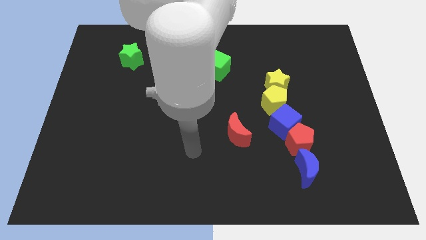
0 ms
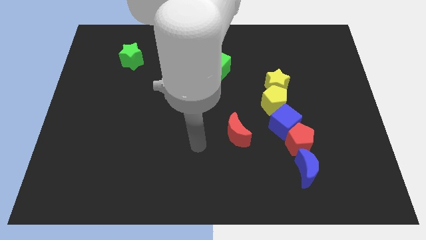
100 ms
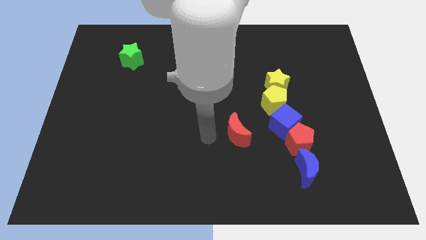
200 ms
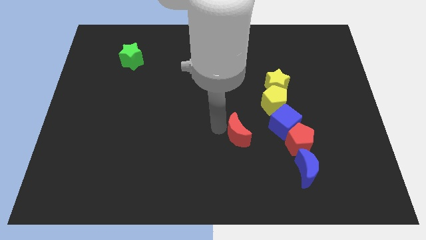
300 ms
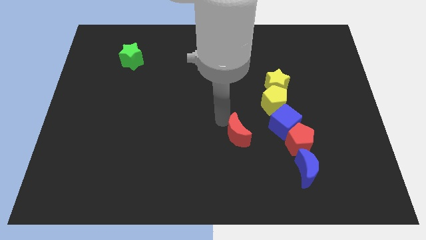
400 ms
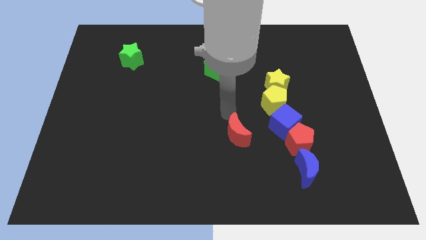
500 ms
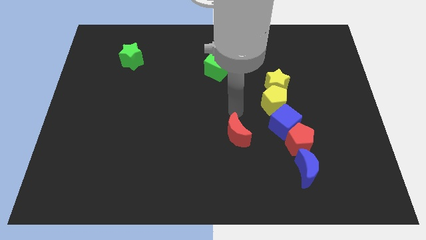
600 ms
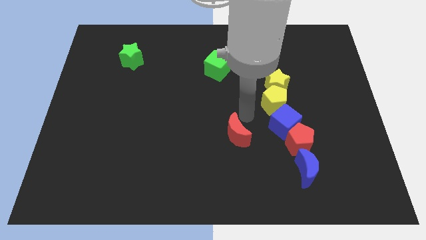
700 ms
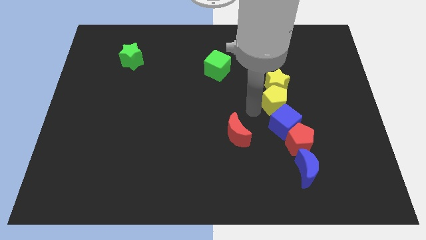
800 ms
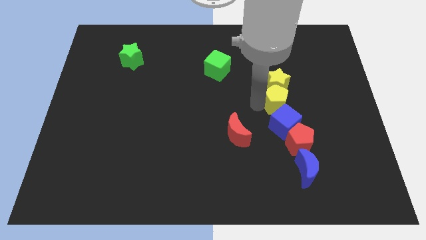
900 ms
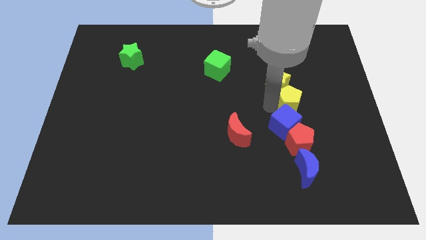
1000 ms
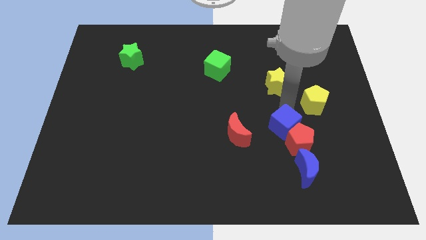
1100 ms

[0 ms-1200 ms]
pull the yellow star apart from the yellow pentagon

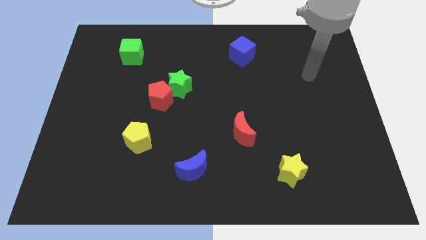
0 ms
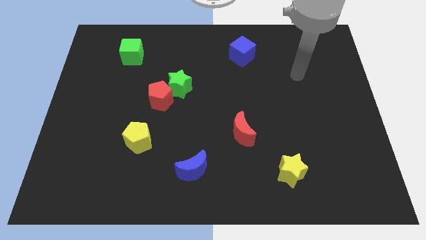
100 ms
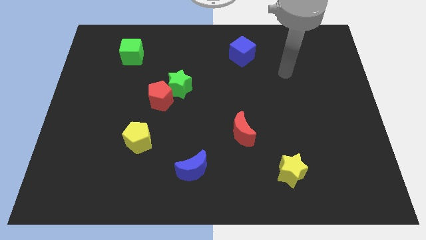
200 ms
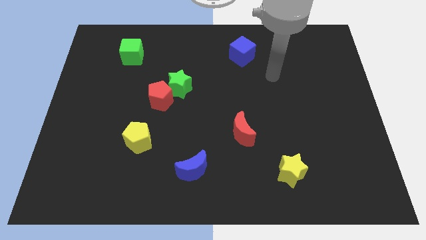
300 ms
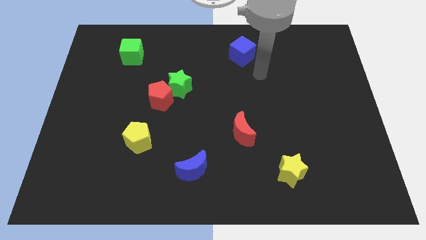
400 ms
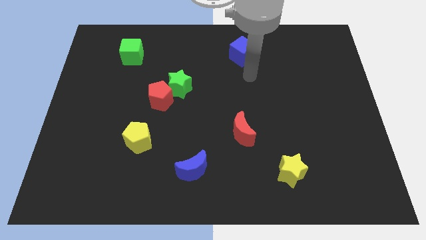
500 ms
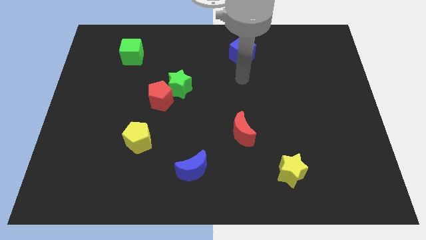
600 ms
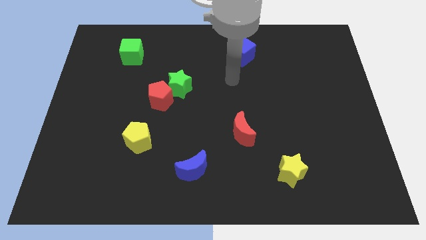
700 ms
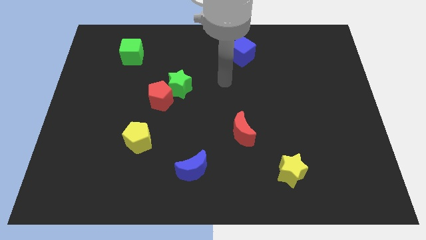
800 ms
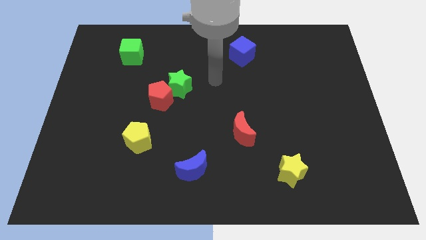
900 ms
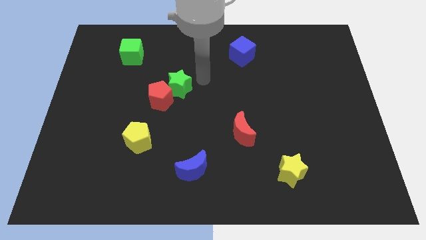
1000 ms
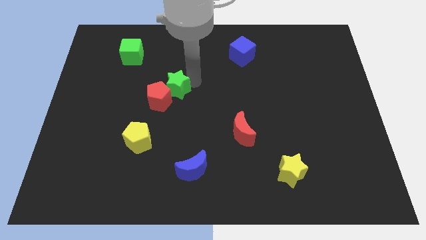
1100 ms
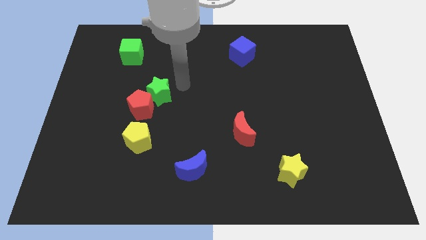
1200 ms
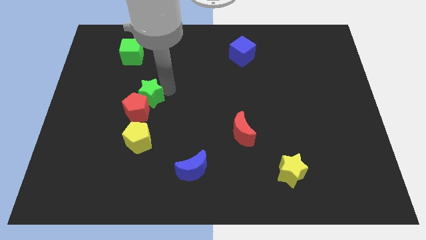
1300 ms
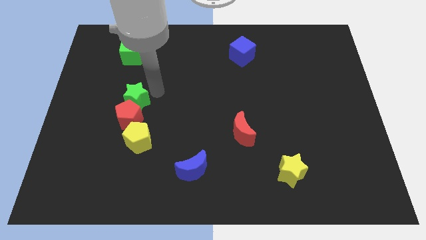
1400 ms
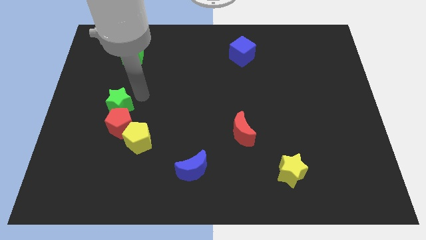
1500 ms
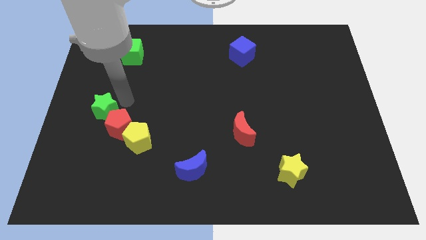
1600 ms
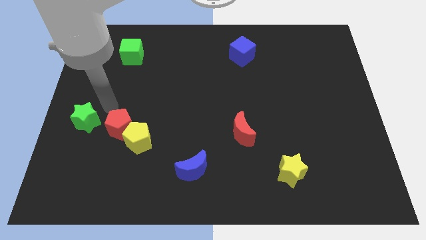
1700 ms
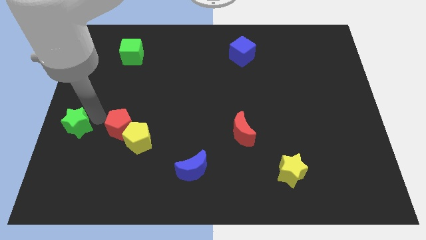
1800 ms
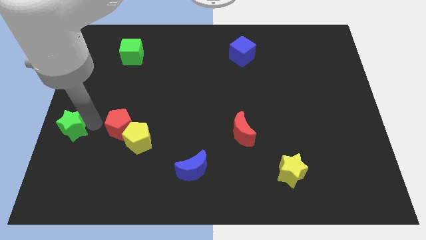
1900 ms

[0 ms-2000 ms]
pull the red pentagon apart from the green star

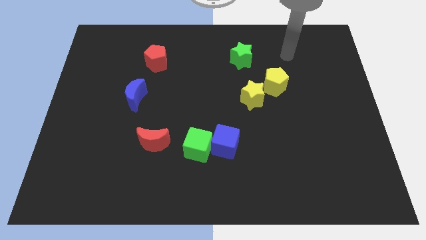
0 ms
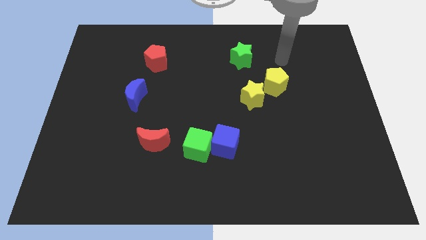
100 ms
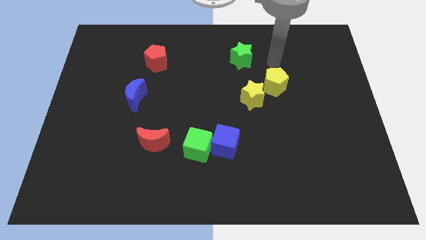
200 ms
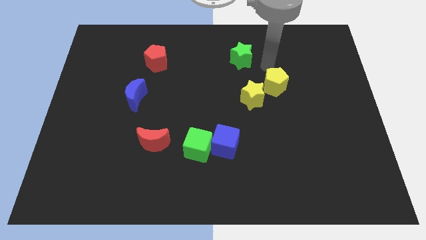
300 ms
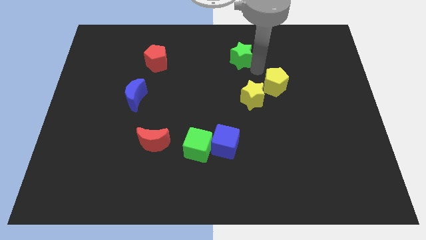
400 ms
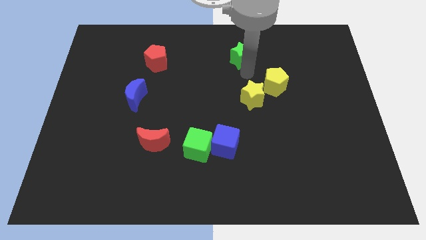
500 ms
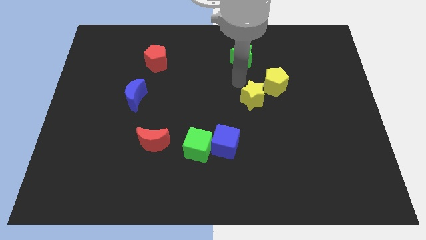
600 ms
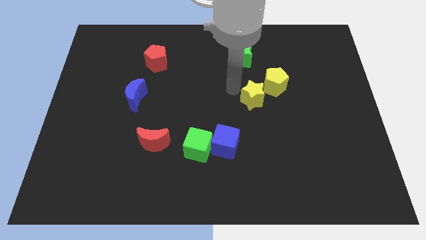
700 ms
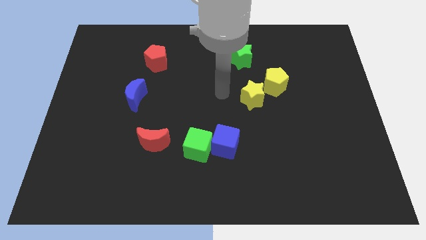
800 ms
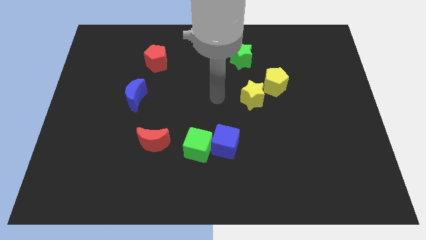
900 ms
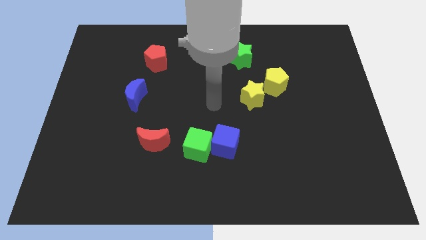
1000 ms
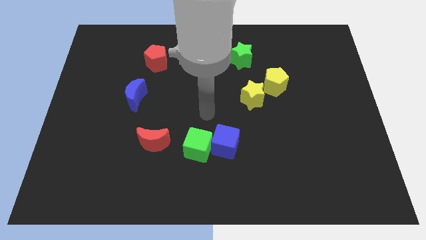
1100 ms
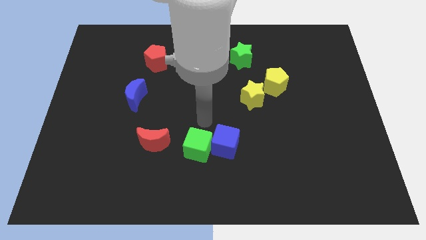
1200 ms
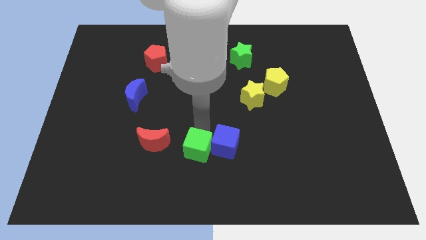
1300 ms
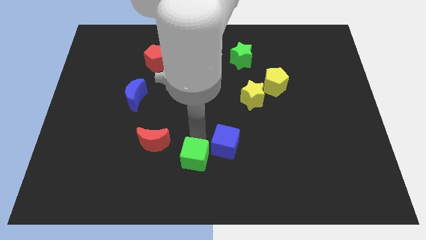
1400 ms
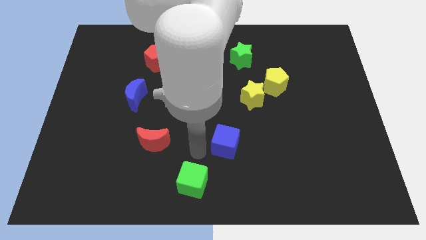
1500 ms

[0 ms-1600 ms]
pull the blue cube apart from the green cube

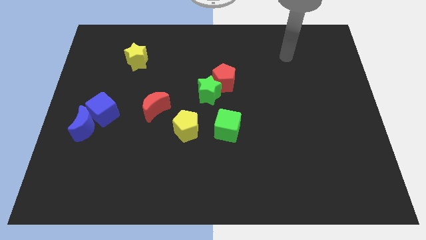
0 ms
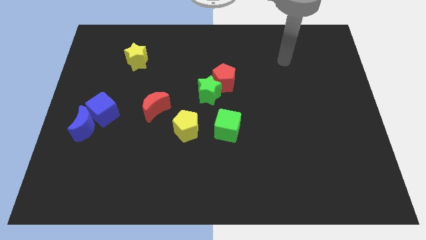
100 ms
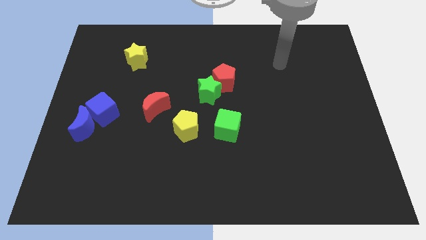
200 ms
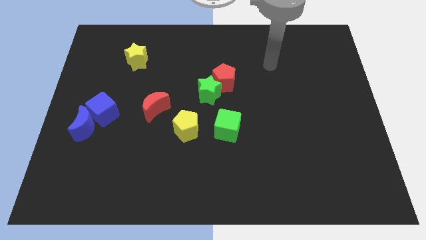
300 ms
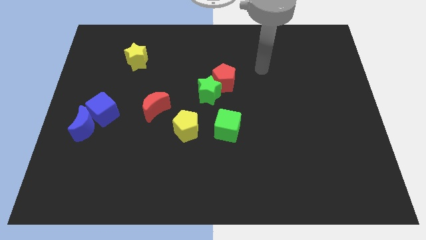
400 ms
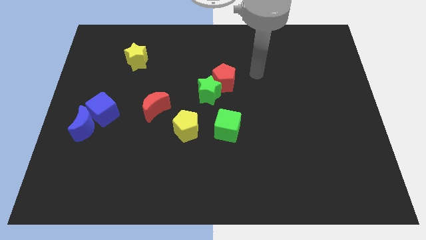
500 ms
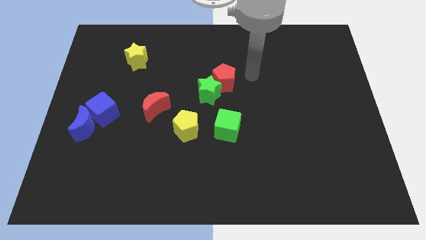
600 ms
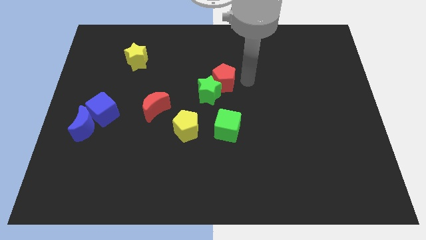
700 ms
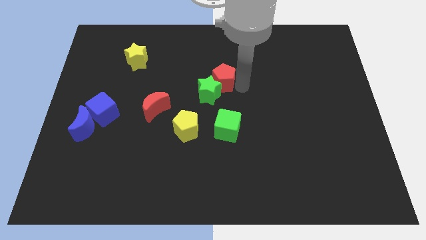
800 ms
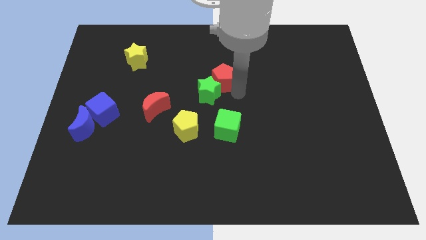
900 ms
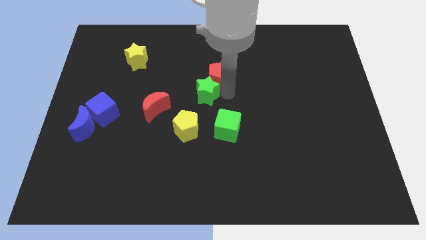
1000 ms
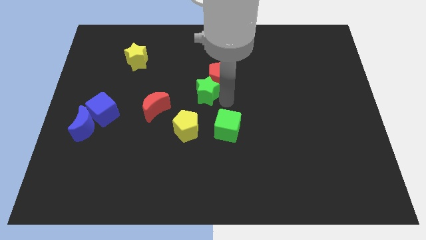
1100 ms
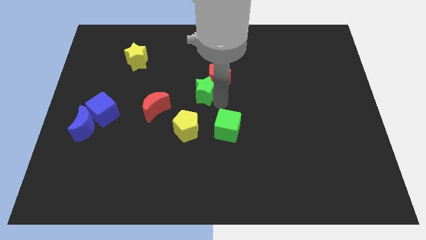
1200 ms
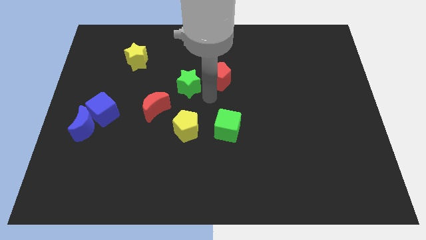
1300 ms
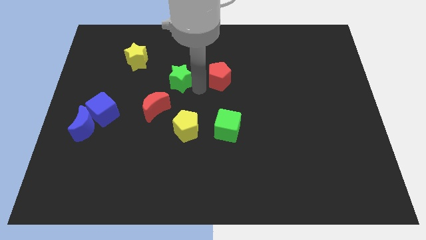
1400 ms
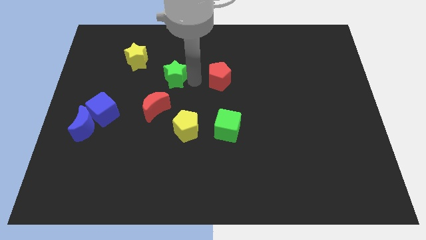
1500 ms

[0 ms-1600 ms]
separate the red pentagon from the green star

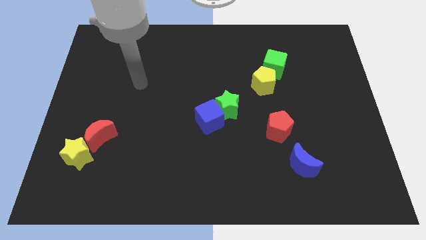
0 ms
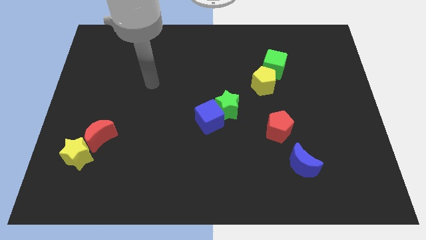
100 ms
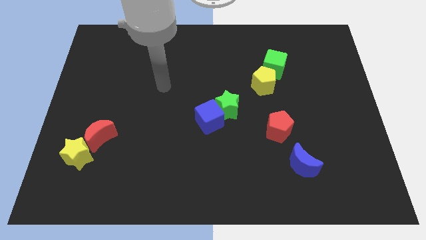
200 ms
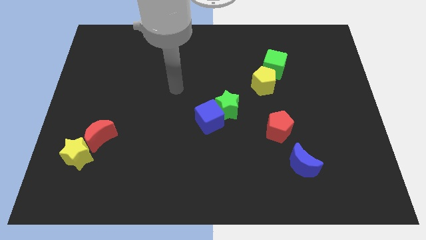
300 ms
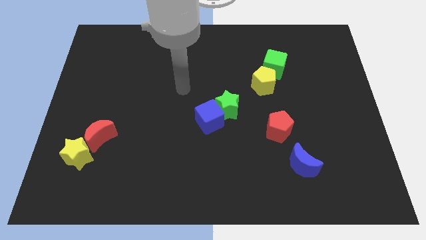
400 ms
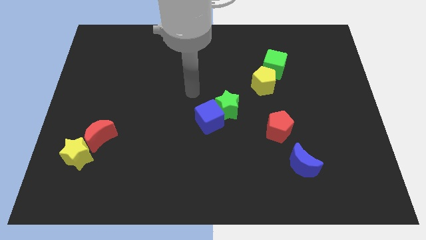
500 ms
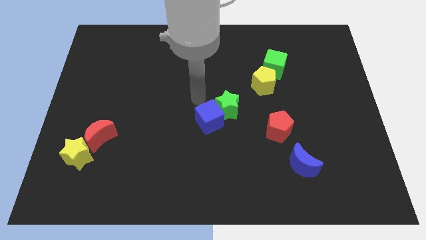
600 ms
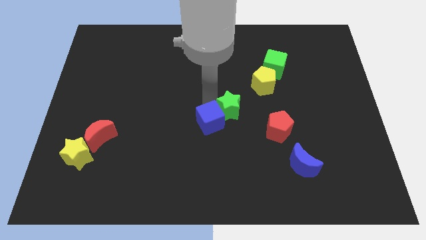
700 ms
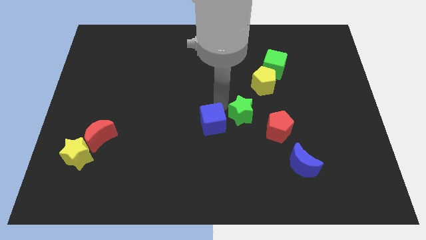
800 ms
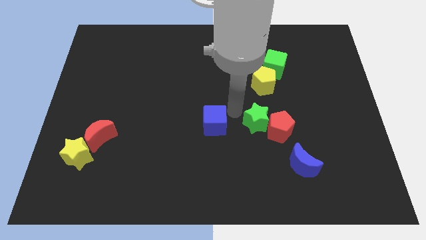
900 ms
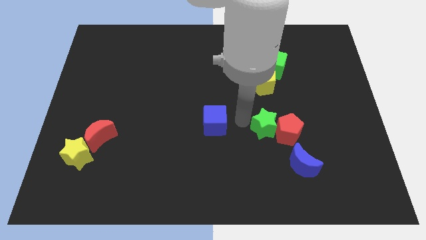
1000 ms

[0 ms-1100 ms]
separate the blue cube from the green star

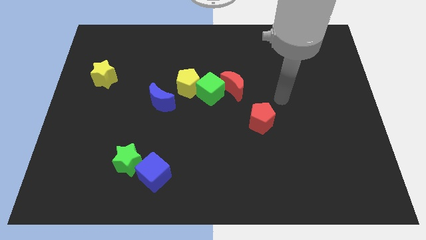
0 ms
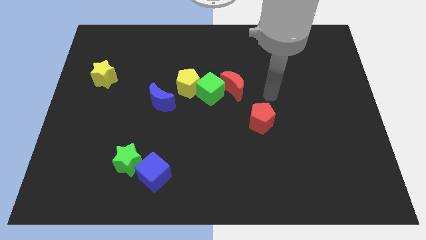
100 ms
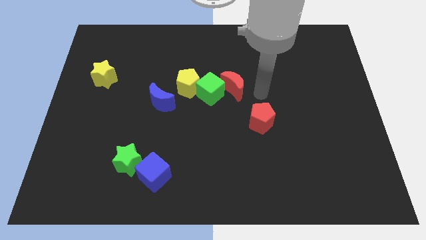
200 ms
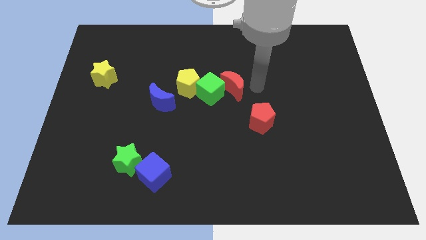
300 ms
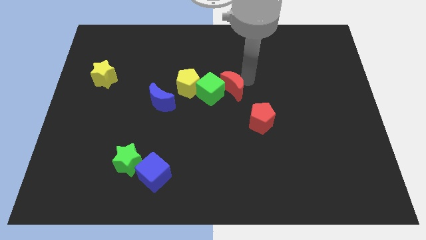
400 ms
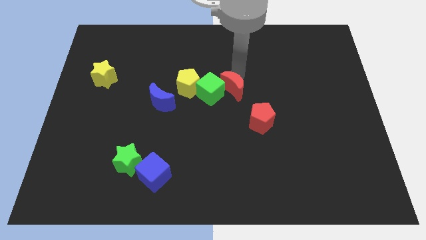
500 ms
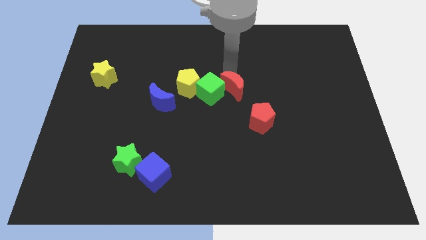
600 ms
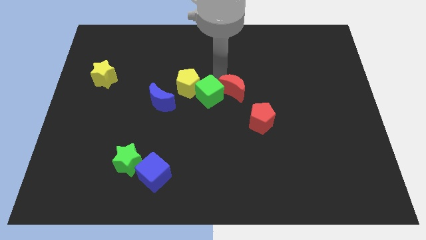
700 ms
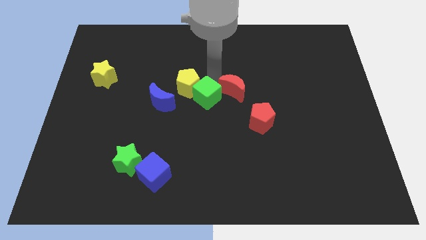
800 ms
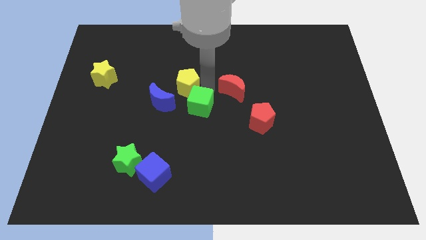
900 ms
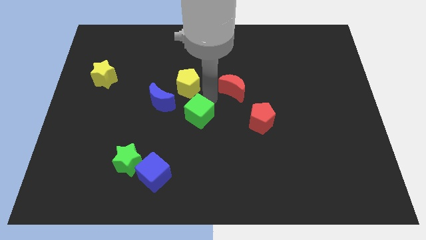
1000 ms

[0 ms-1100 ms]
separate the red moon from the green cube

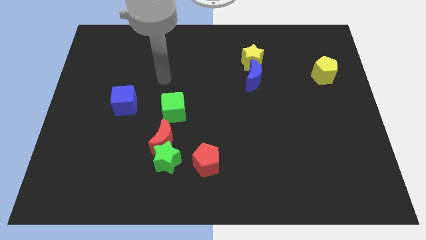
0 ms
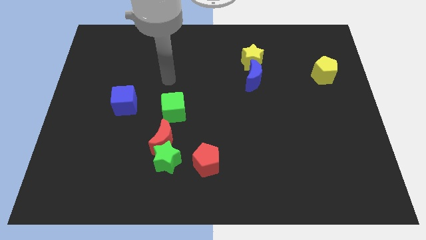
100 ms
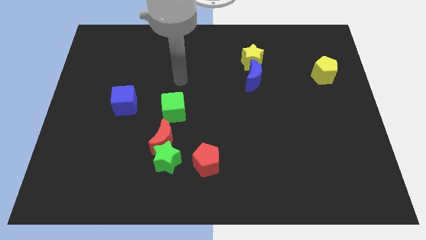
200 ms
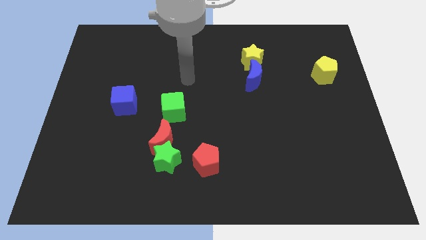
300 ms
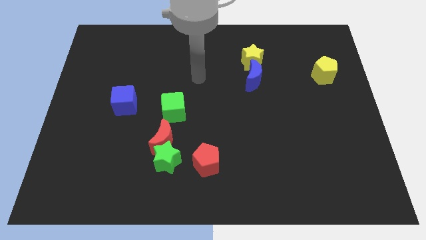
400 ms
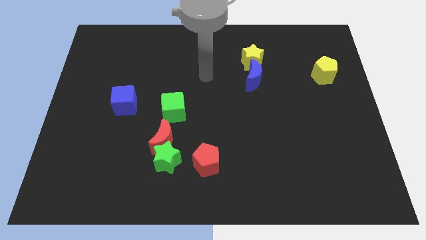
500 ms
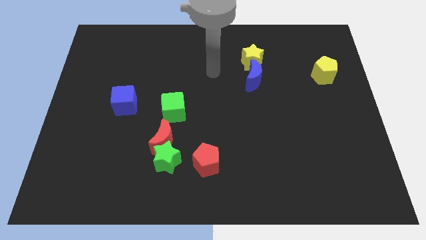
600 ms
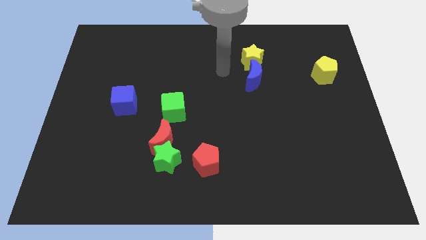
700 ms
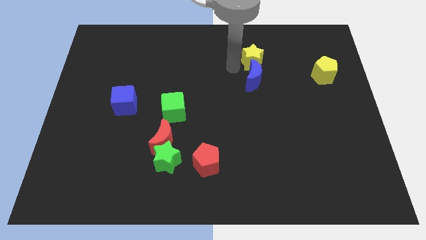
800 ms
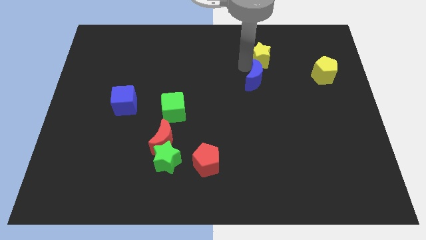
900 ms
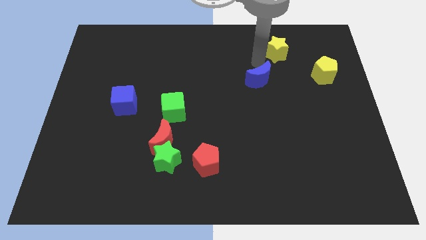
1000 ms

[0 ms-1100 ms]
separate the blue moon from the yellow star
